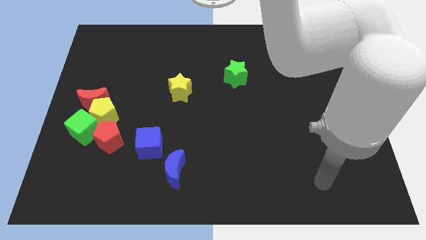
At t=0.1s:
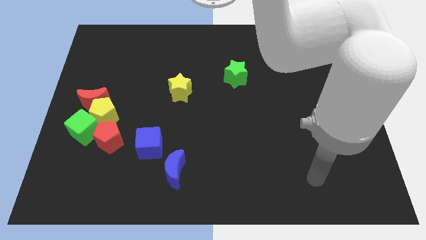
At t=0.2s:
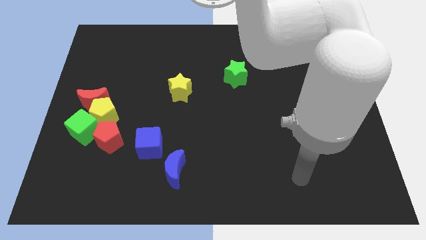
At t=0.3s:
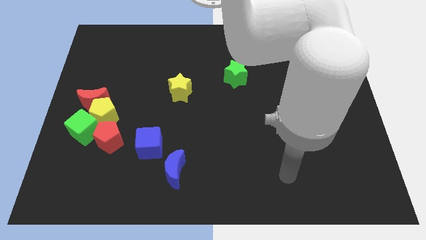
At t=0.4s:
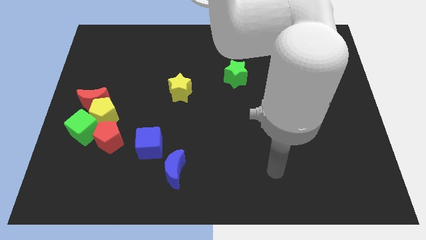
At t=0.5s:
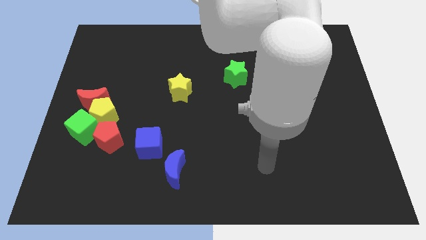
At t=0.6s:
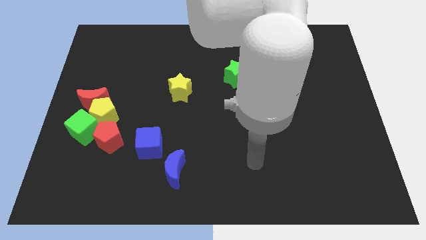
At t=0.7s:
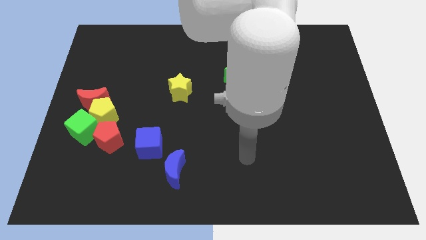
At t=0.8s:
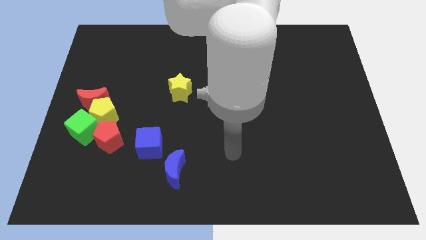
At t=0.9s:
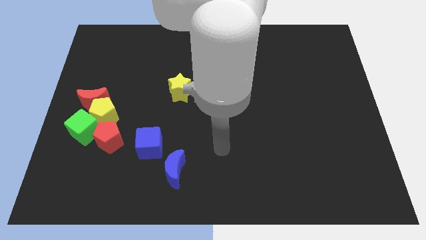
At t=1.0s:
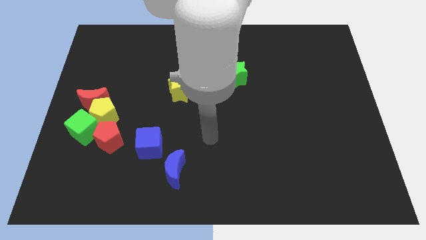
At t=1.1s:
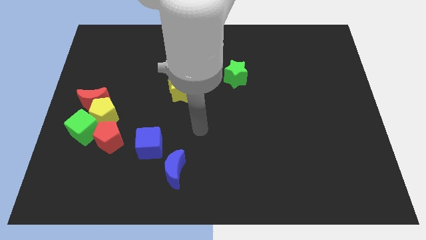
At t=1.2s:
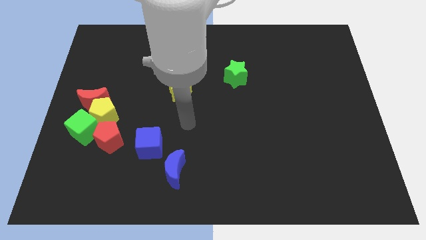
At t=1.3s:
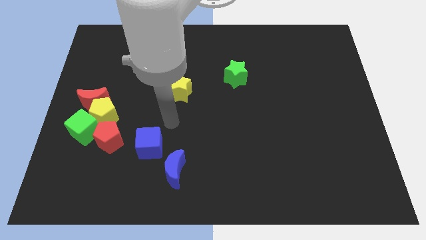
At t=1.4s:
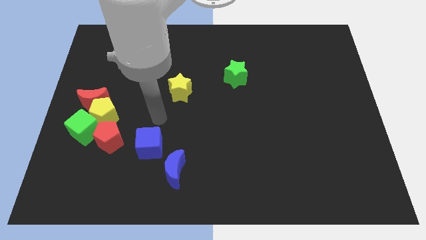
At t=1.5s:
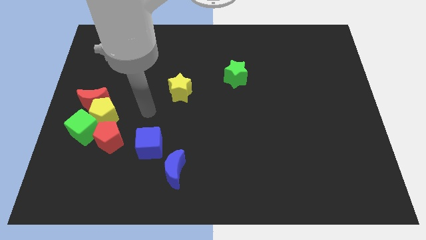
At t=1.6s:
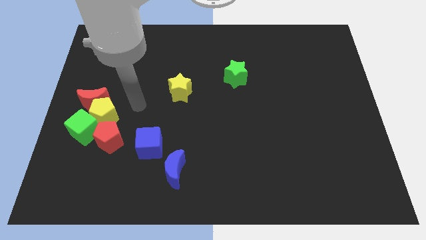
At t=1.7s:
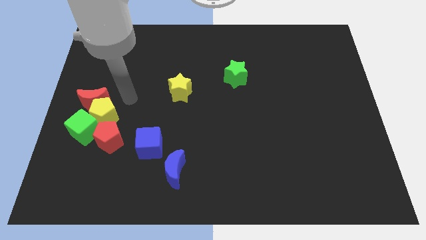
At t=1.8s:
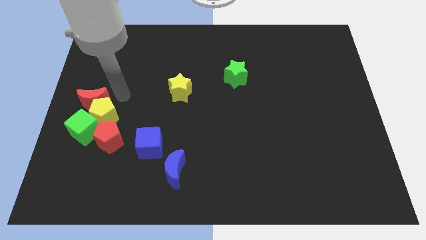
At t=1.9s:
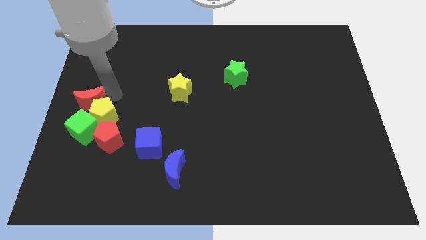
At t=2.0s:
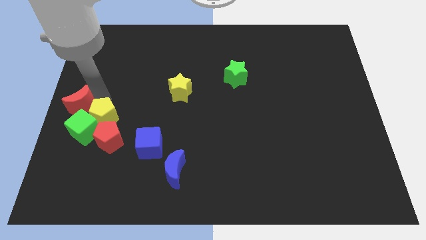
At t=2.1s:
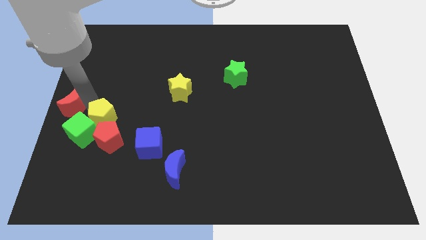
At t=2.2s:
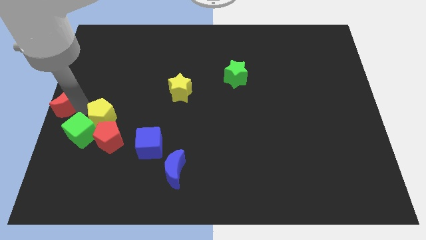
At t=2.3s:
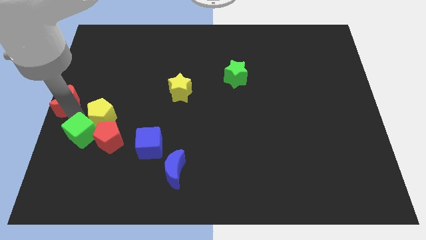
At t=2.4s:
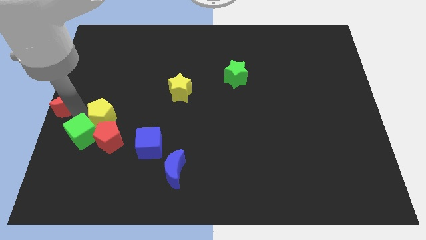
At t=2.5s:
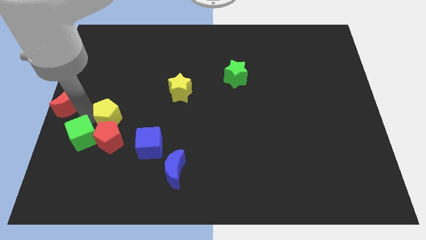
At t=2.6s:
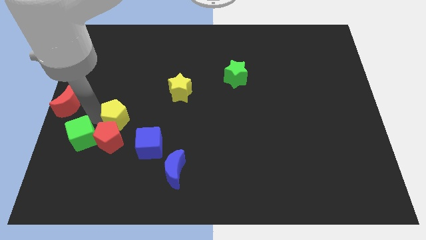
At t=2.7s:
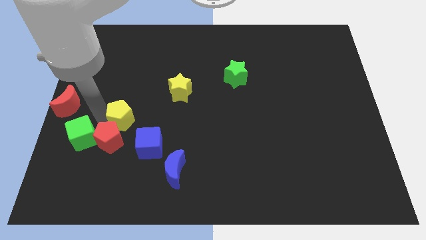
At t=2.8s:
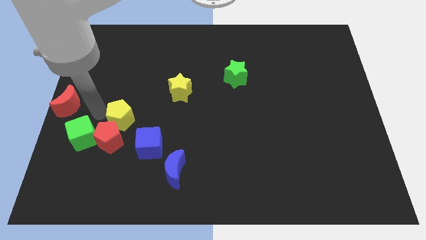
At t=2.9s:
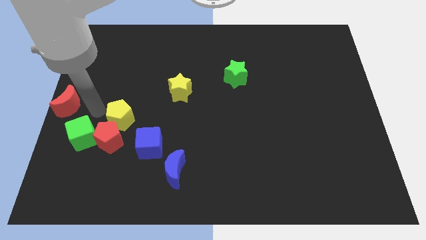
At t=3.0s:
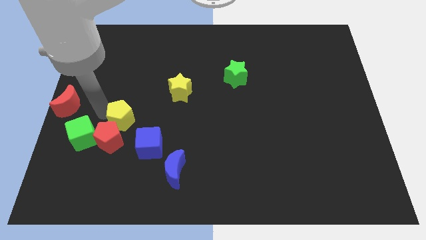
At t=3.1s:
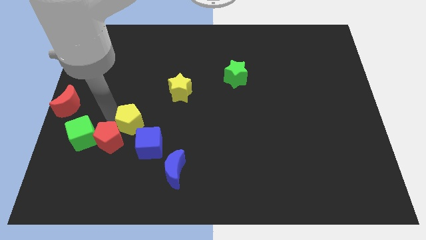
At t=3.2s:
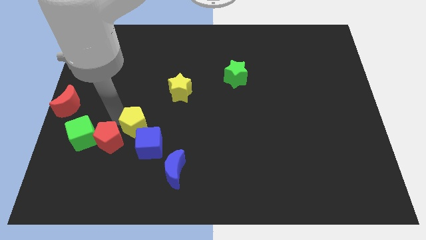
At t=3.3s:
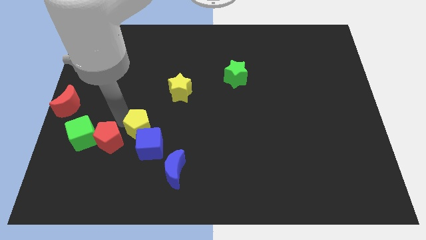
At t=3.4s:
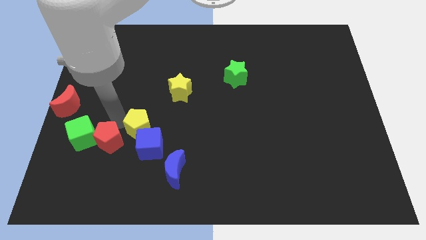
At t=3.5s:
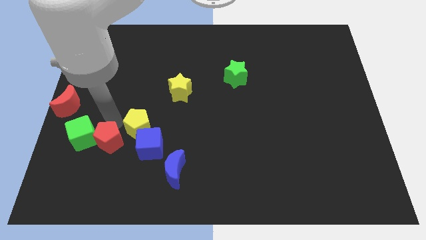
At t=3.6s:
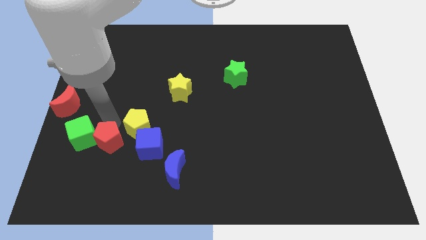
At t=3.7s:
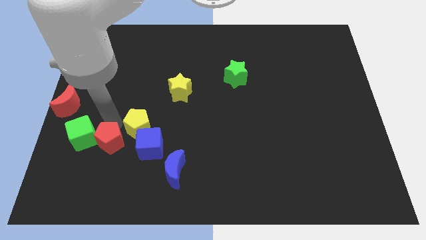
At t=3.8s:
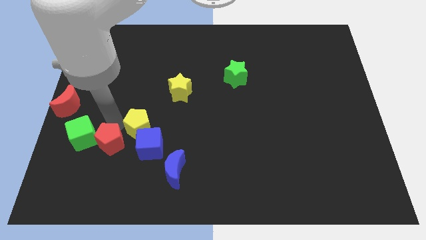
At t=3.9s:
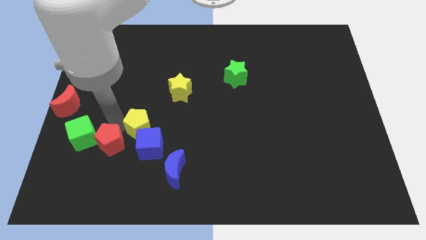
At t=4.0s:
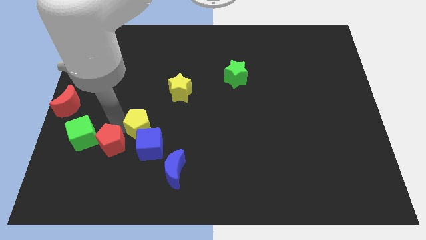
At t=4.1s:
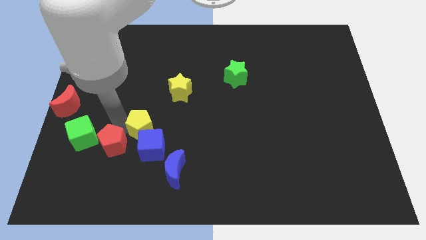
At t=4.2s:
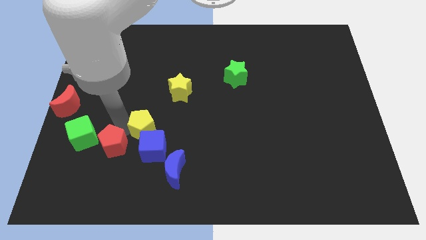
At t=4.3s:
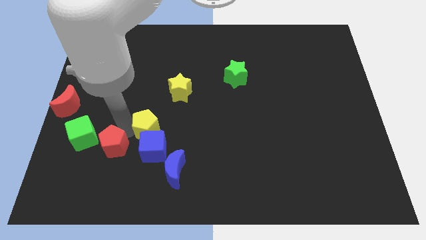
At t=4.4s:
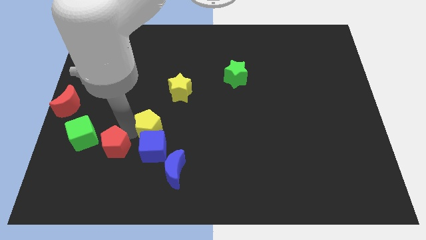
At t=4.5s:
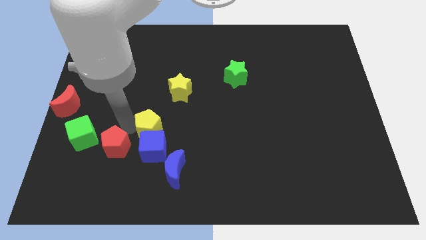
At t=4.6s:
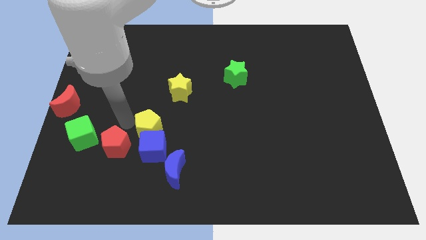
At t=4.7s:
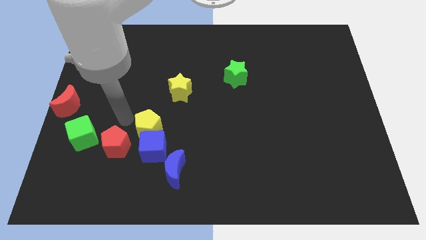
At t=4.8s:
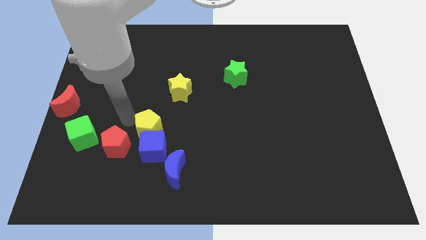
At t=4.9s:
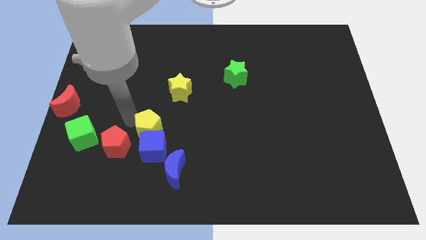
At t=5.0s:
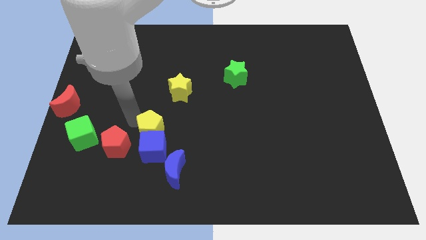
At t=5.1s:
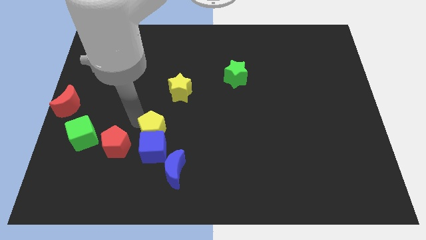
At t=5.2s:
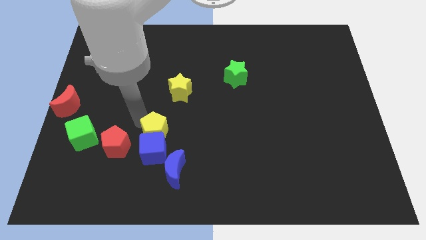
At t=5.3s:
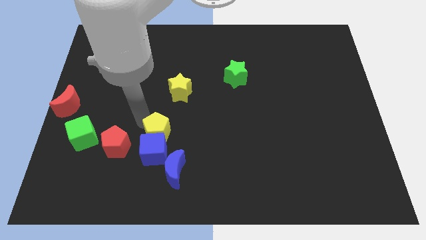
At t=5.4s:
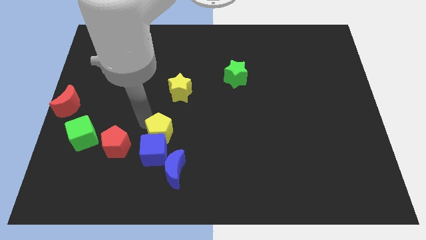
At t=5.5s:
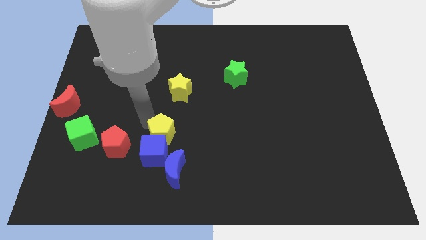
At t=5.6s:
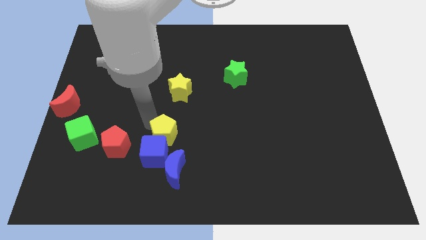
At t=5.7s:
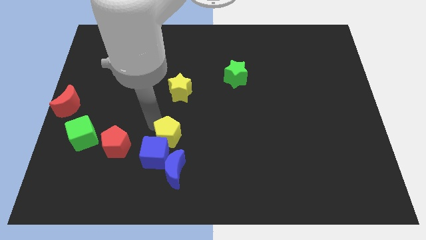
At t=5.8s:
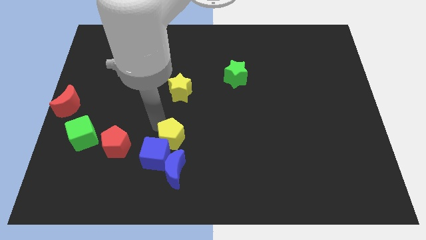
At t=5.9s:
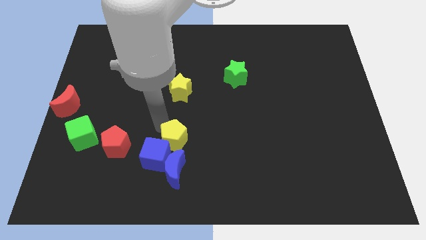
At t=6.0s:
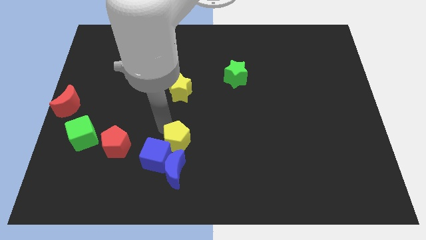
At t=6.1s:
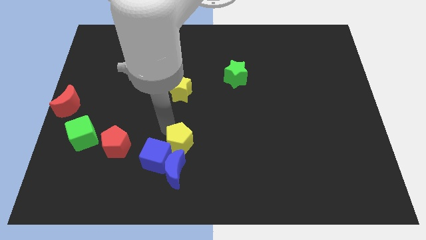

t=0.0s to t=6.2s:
push the yellow pentagon to the top right side of the blue moon
